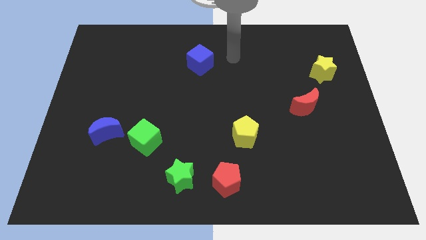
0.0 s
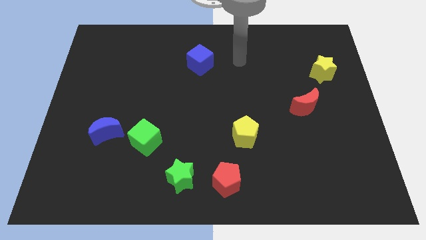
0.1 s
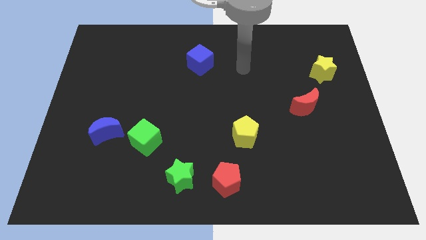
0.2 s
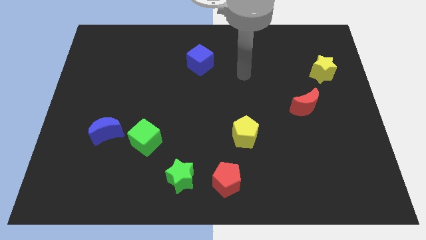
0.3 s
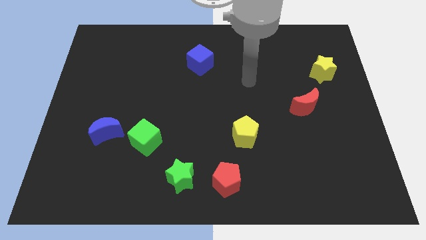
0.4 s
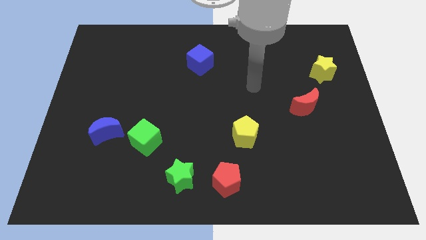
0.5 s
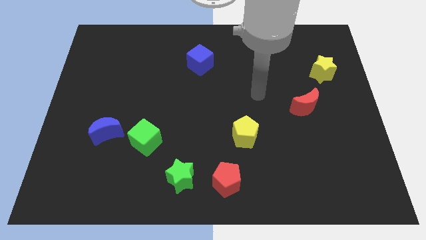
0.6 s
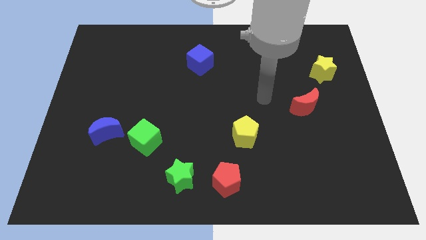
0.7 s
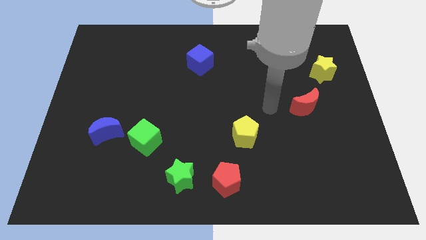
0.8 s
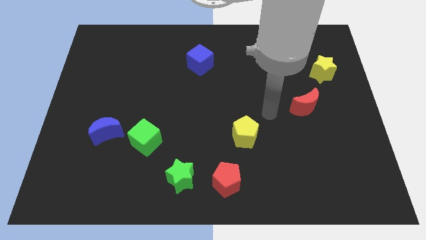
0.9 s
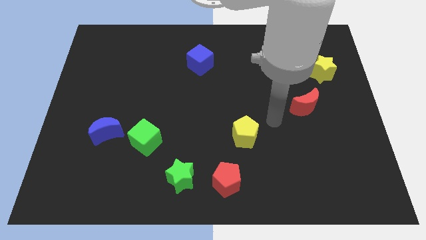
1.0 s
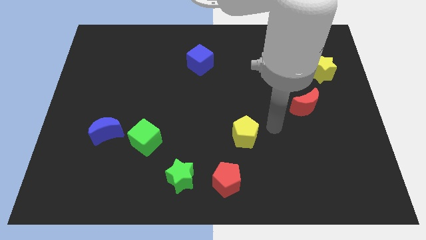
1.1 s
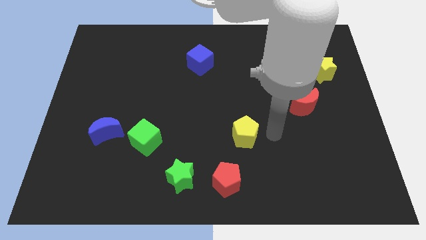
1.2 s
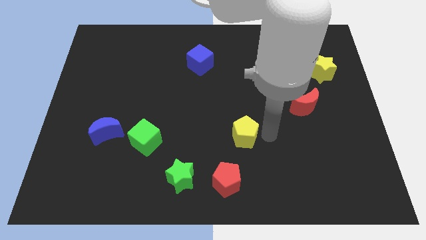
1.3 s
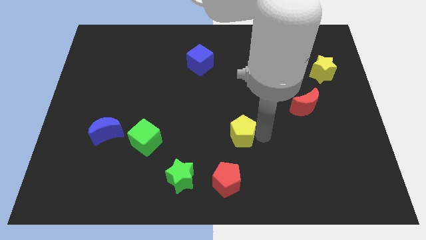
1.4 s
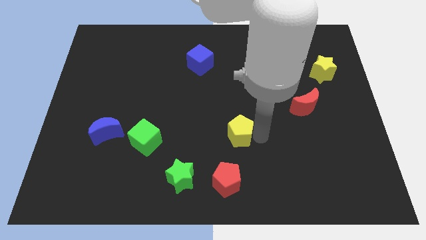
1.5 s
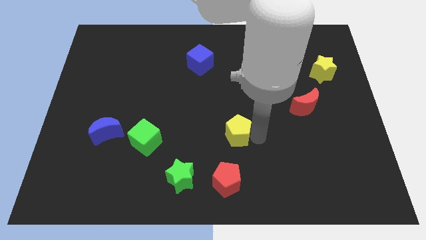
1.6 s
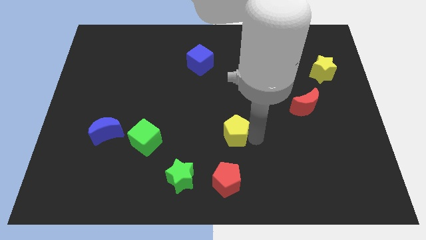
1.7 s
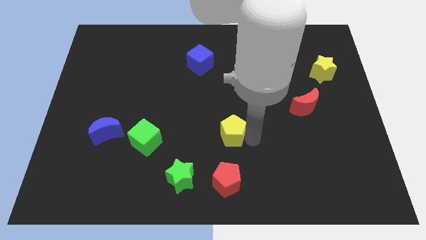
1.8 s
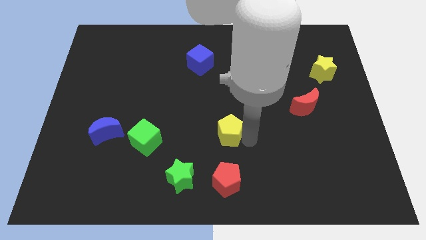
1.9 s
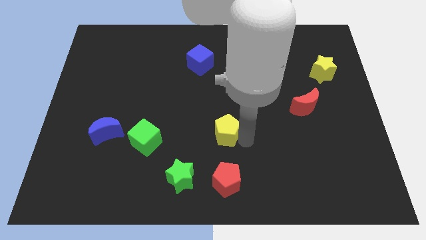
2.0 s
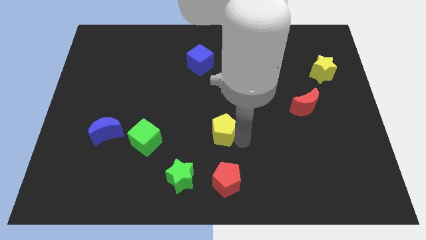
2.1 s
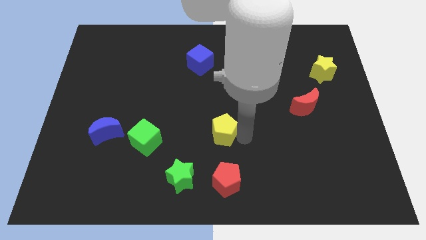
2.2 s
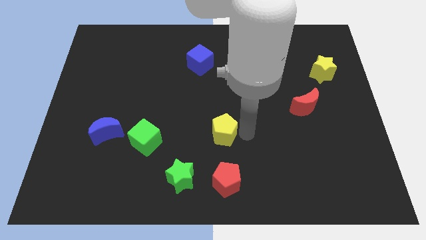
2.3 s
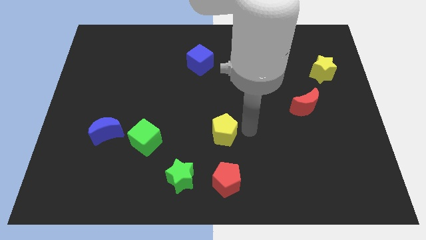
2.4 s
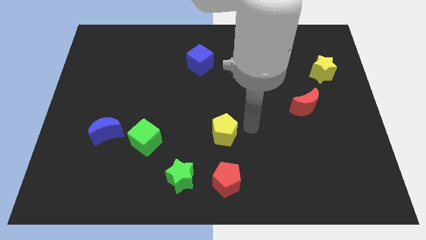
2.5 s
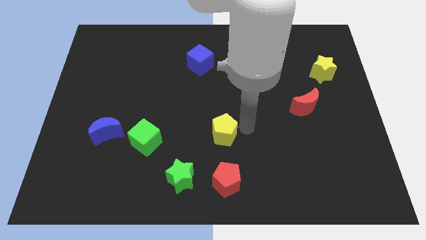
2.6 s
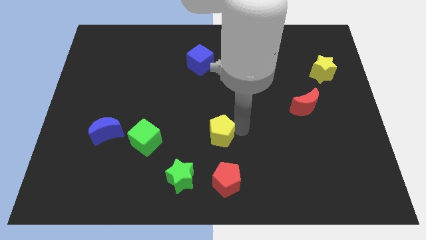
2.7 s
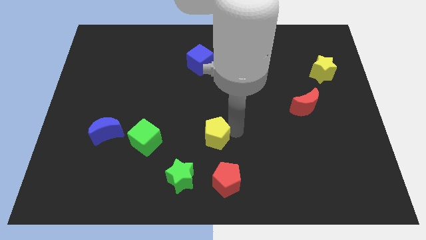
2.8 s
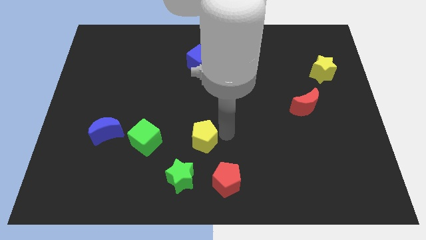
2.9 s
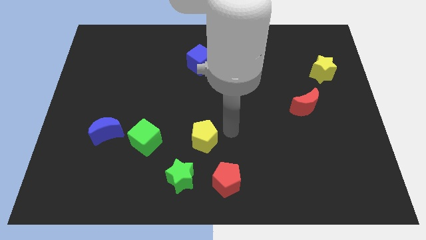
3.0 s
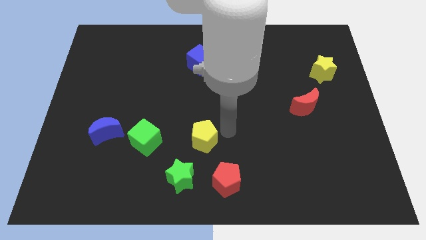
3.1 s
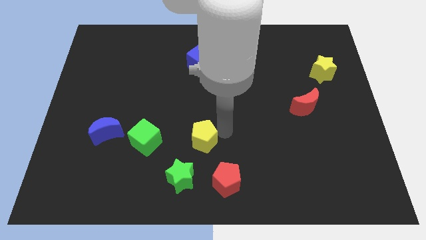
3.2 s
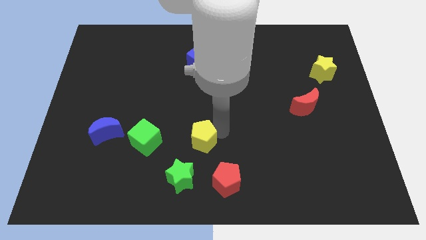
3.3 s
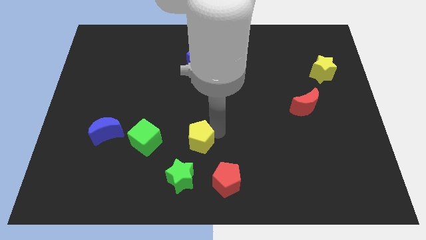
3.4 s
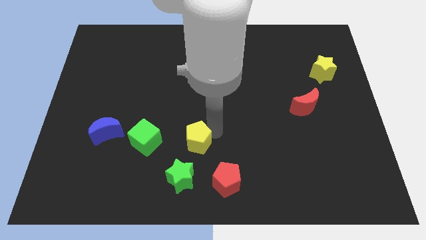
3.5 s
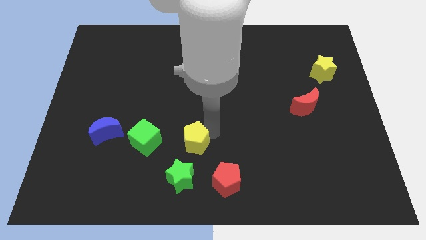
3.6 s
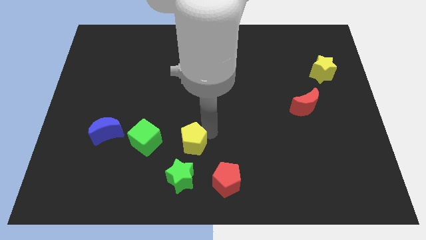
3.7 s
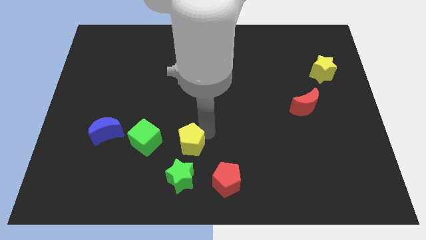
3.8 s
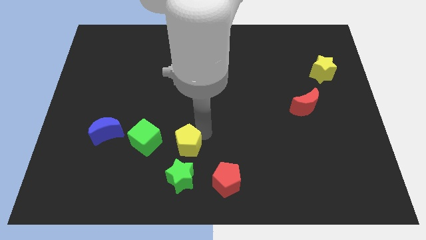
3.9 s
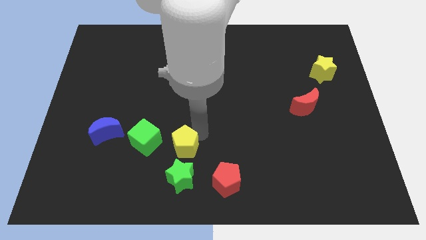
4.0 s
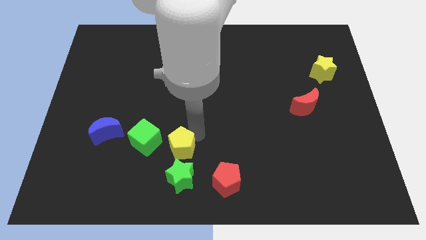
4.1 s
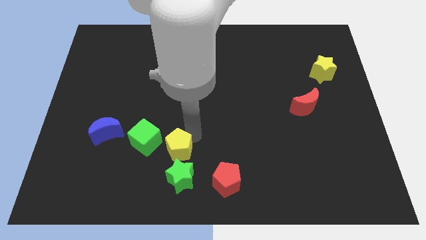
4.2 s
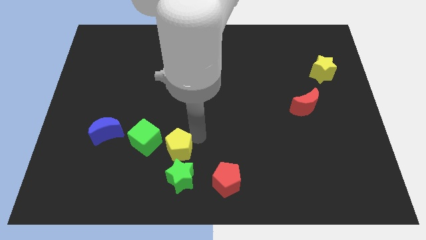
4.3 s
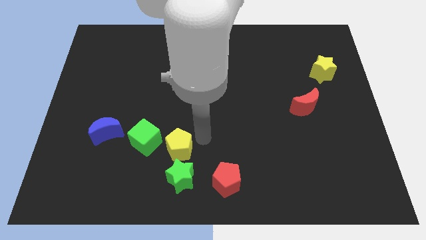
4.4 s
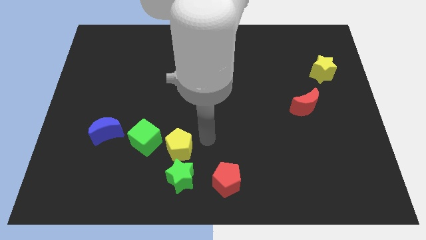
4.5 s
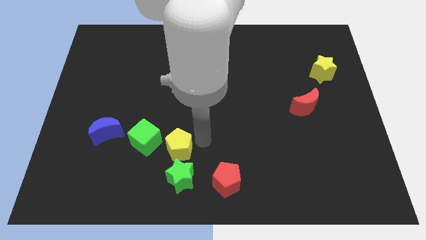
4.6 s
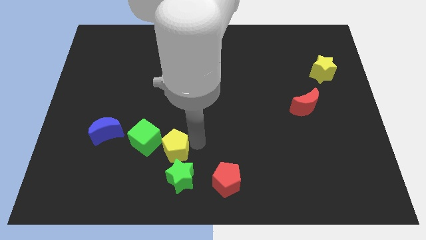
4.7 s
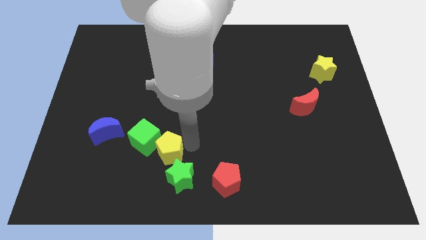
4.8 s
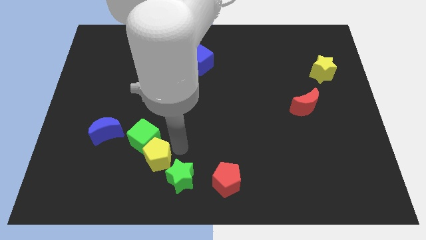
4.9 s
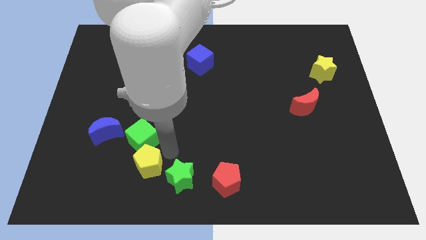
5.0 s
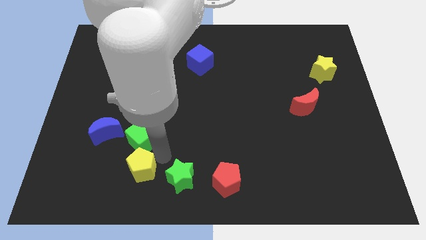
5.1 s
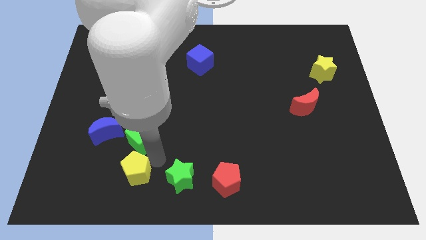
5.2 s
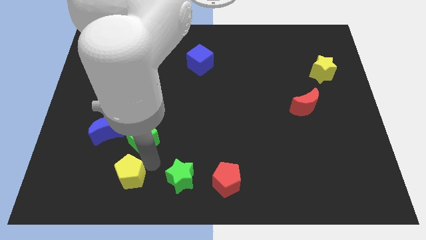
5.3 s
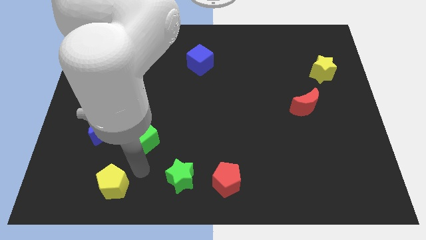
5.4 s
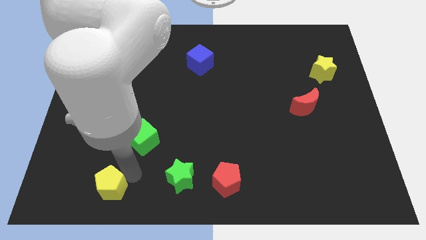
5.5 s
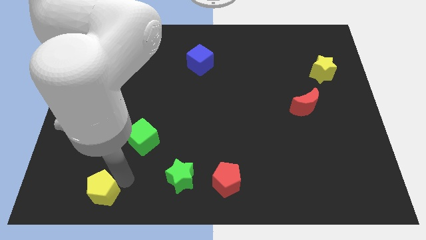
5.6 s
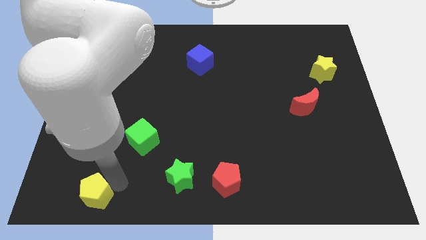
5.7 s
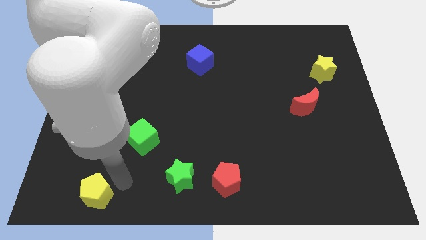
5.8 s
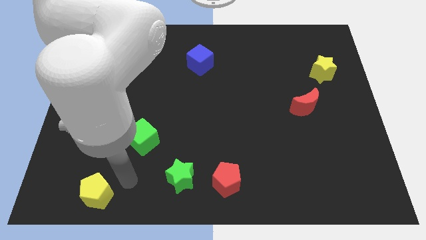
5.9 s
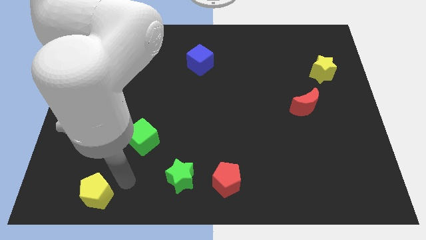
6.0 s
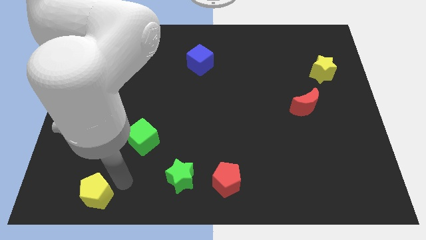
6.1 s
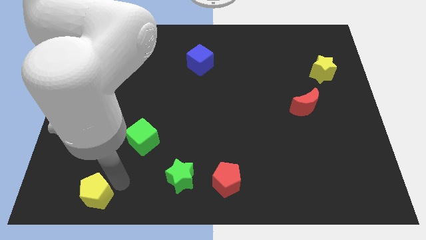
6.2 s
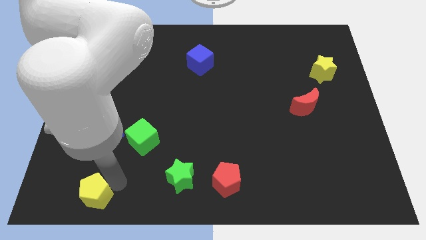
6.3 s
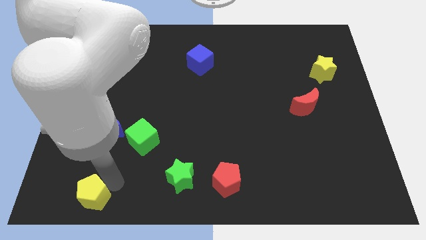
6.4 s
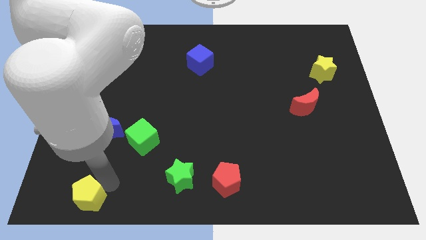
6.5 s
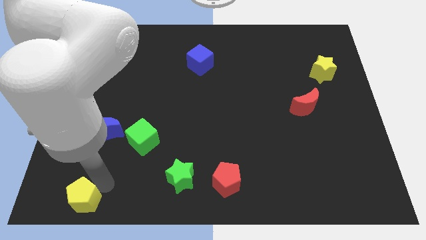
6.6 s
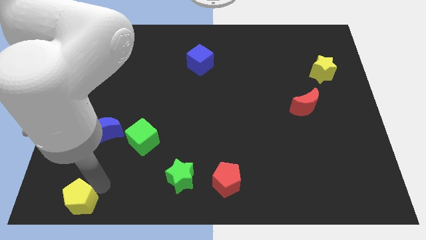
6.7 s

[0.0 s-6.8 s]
move the yellow pentagon to the bottom left corner
